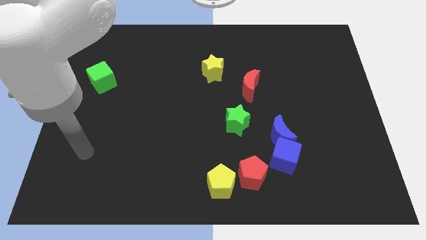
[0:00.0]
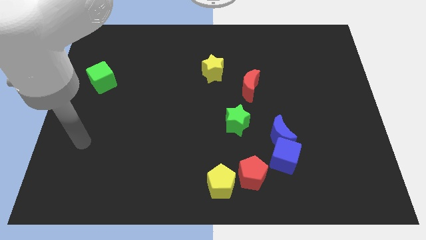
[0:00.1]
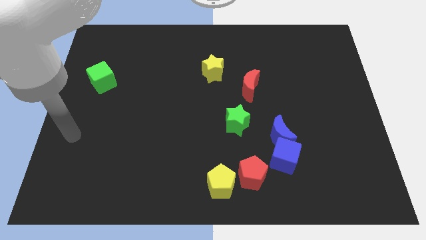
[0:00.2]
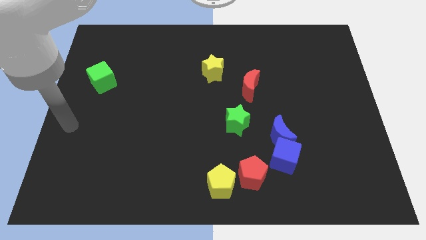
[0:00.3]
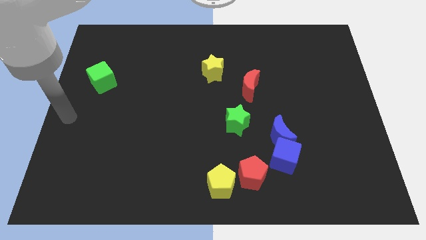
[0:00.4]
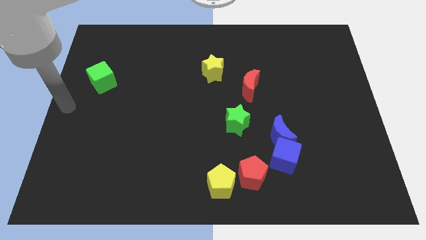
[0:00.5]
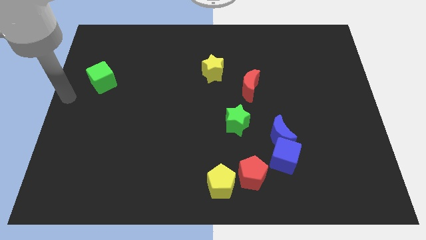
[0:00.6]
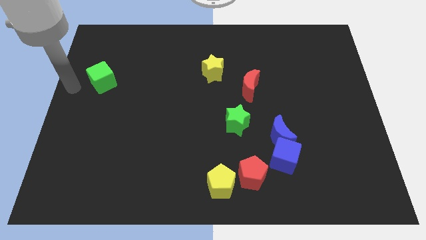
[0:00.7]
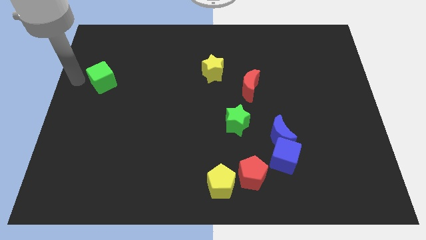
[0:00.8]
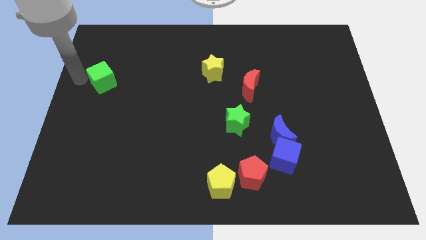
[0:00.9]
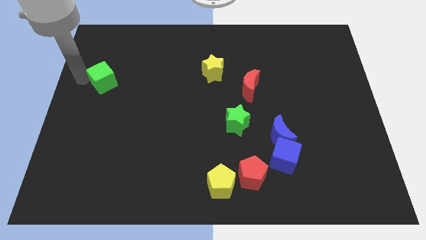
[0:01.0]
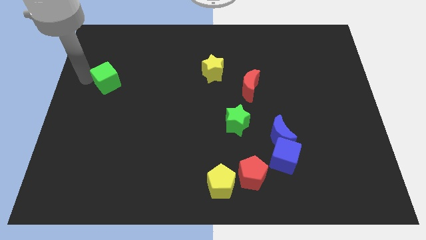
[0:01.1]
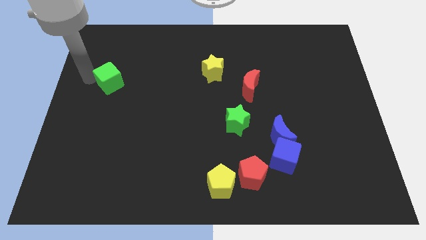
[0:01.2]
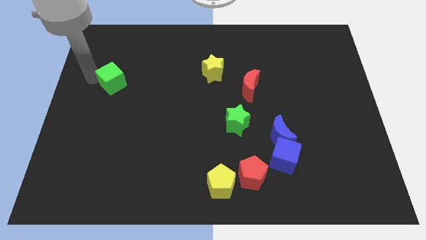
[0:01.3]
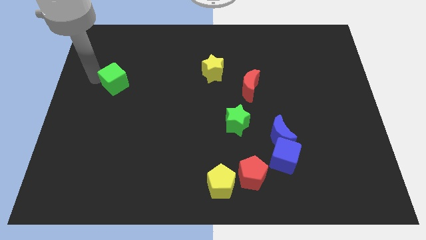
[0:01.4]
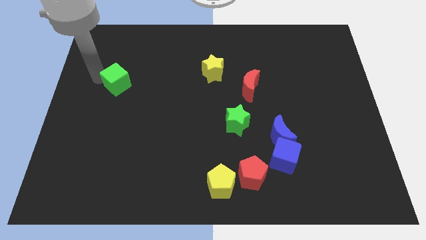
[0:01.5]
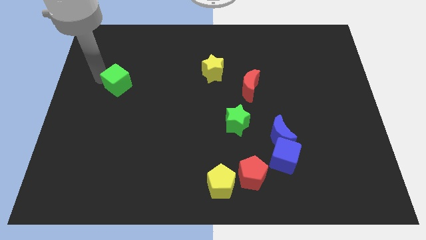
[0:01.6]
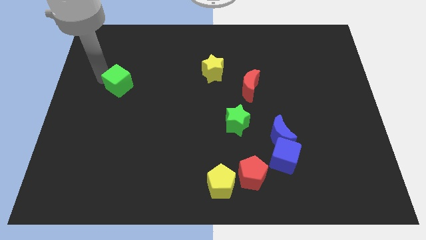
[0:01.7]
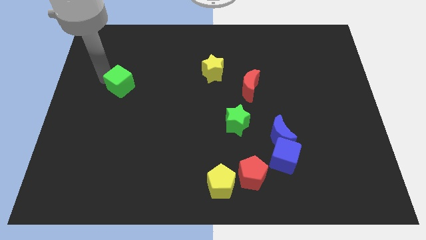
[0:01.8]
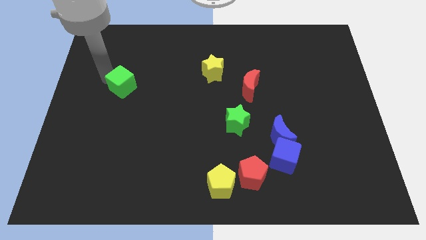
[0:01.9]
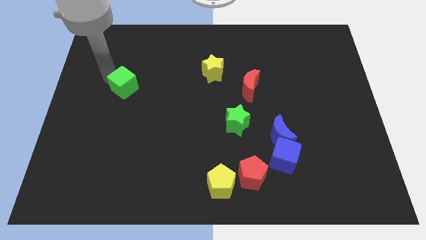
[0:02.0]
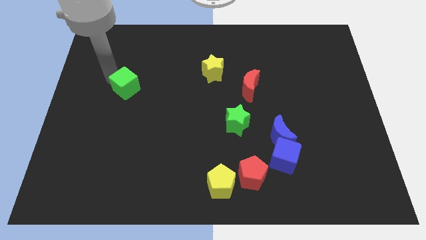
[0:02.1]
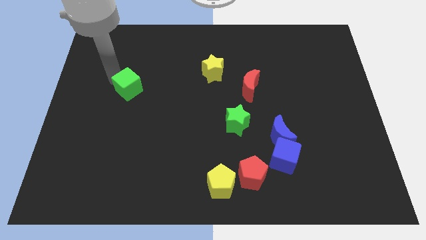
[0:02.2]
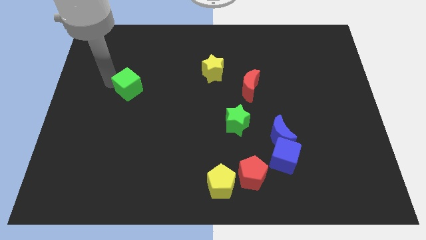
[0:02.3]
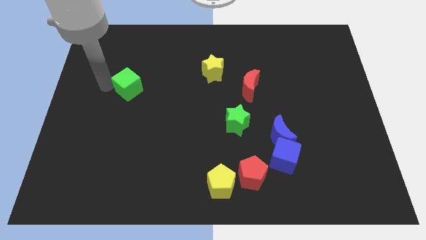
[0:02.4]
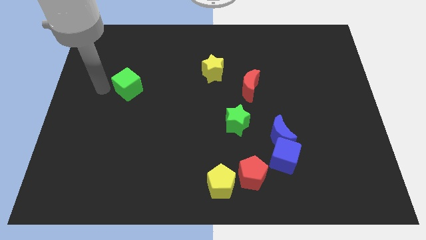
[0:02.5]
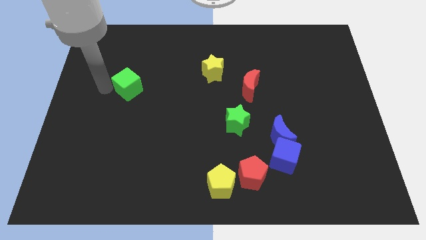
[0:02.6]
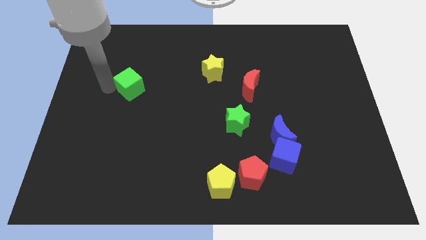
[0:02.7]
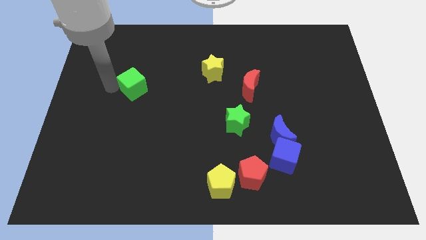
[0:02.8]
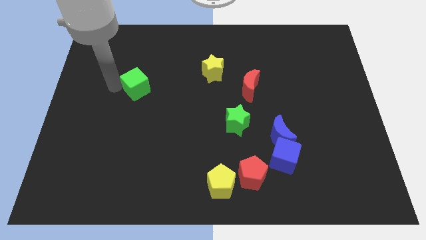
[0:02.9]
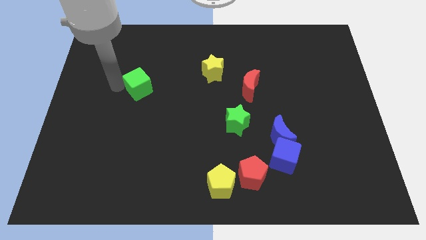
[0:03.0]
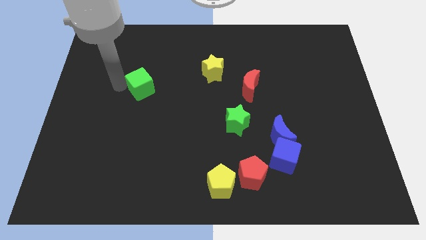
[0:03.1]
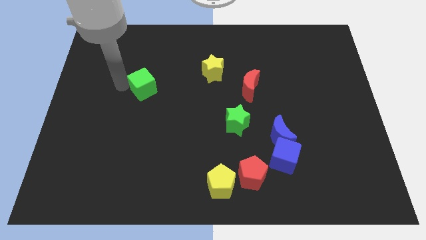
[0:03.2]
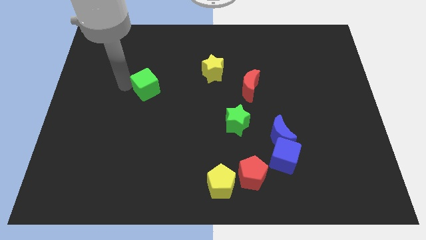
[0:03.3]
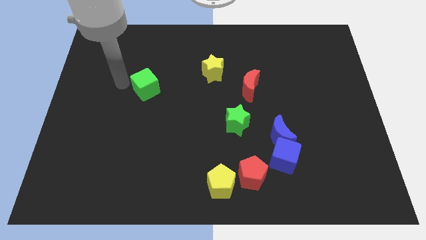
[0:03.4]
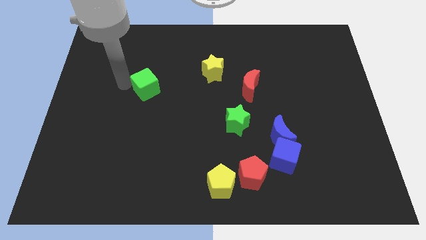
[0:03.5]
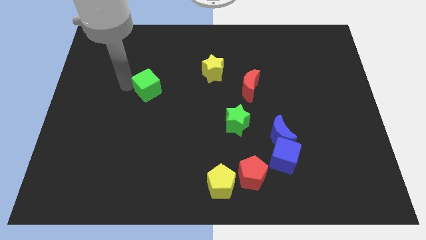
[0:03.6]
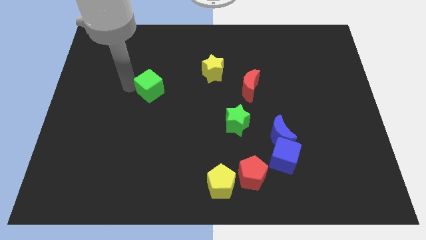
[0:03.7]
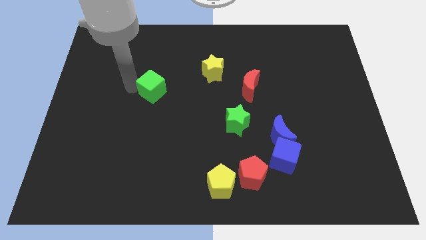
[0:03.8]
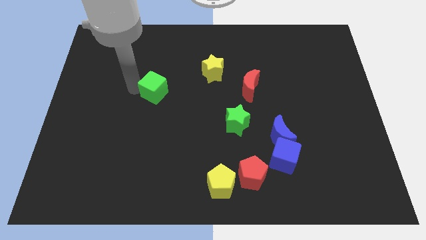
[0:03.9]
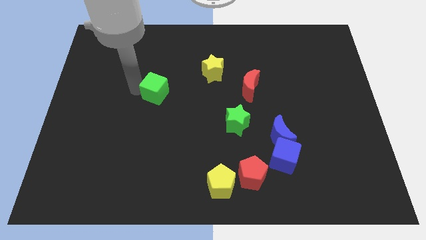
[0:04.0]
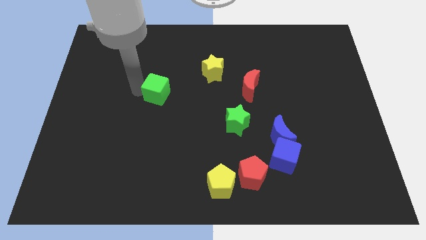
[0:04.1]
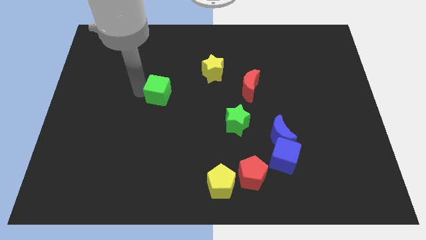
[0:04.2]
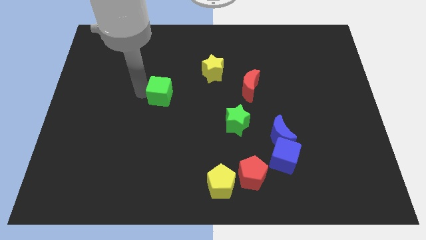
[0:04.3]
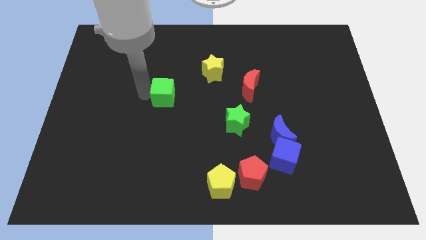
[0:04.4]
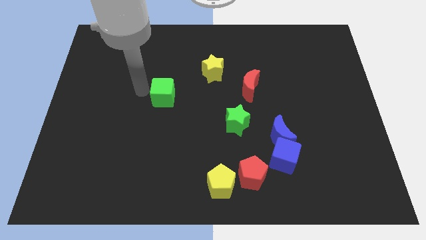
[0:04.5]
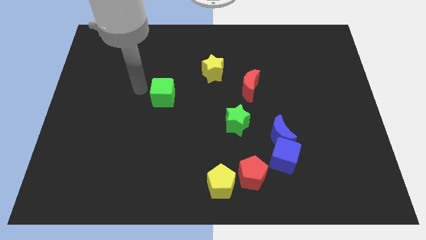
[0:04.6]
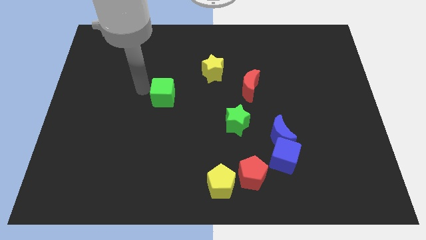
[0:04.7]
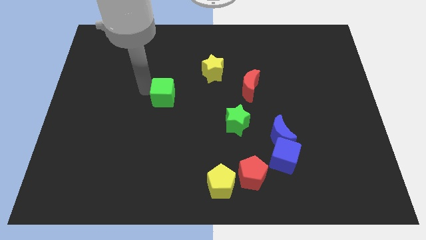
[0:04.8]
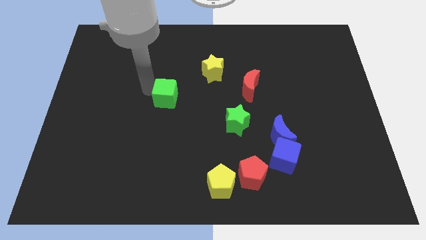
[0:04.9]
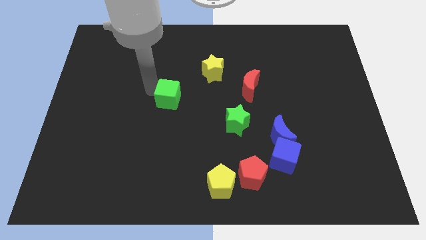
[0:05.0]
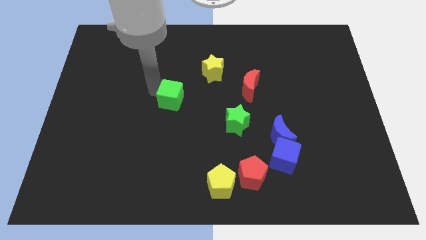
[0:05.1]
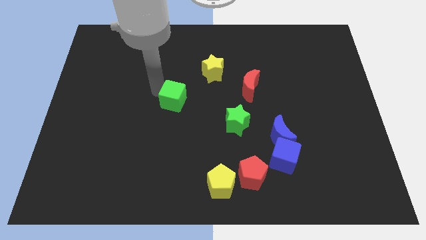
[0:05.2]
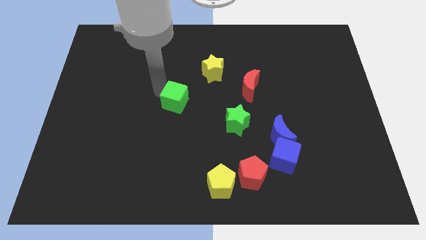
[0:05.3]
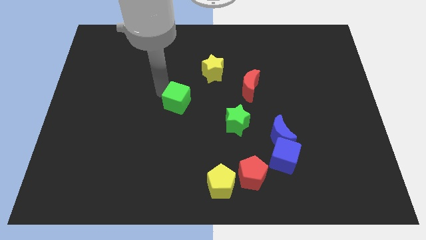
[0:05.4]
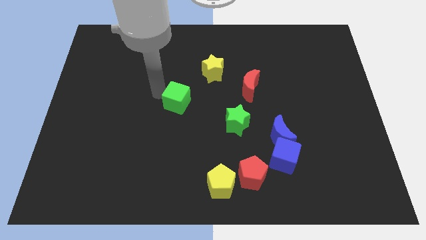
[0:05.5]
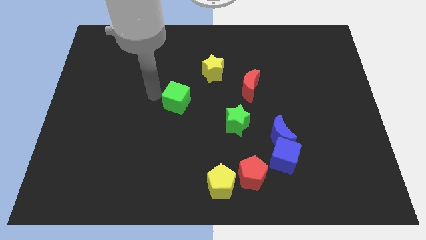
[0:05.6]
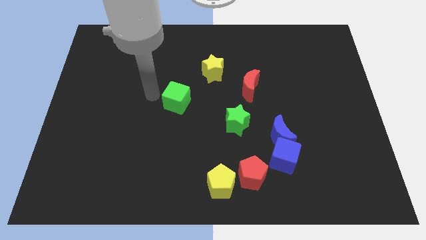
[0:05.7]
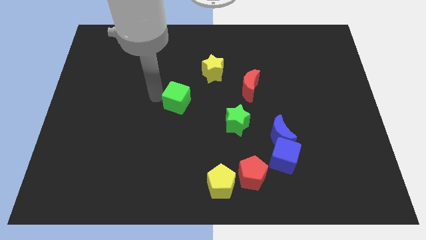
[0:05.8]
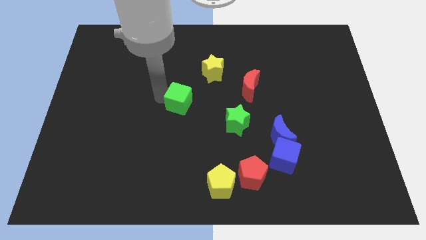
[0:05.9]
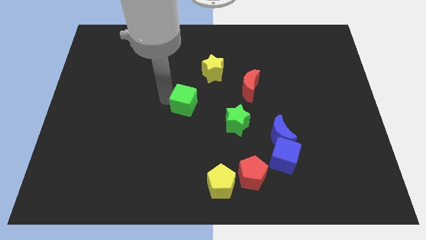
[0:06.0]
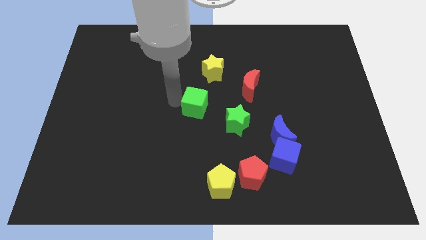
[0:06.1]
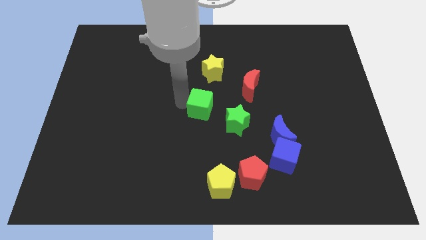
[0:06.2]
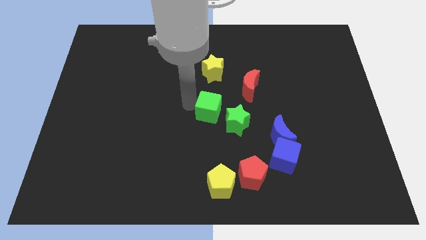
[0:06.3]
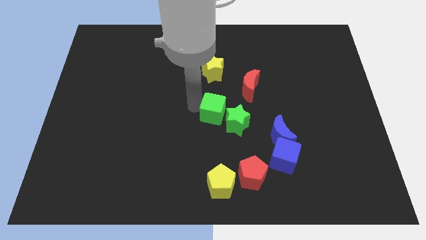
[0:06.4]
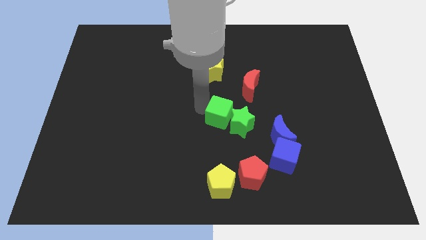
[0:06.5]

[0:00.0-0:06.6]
put the green cube close to the green star

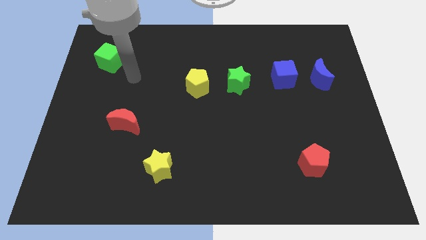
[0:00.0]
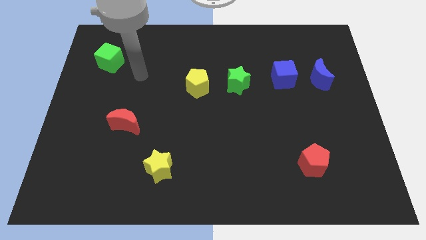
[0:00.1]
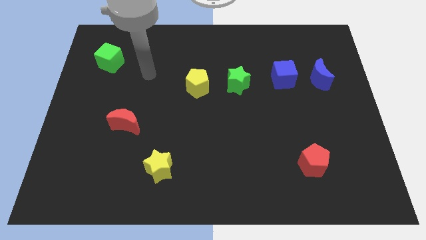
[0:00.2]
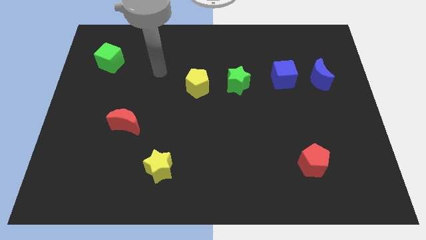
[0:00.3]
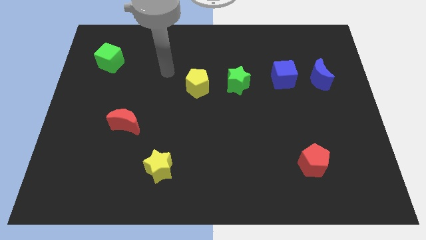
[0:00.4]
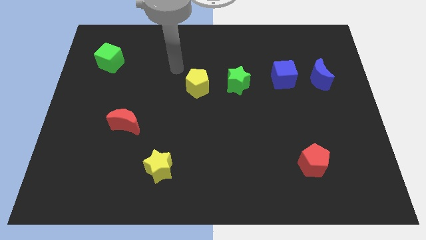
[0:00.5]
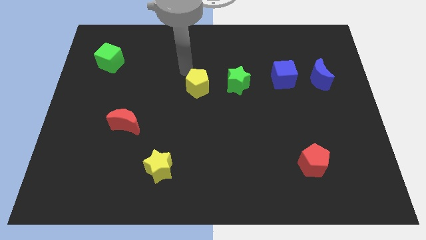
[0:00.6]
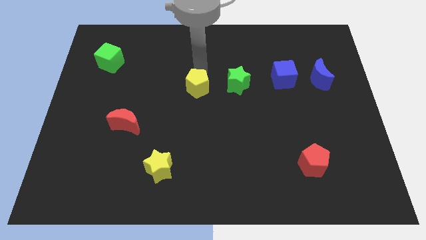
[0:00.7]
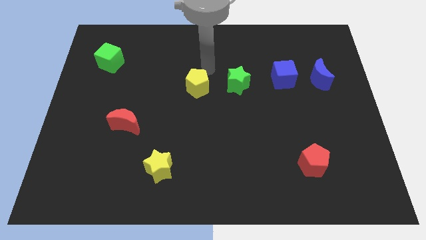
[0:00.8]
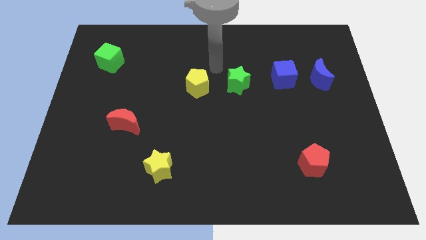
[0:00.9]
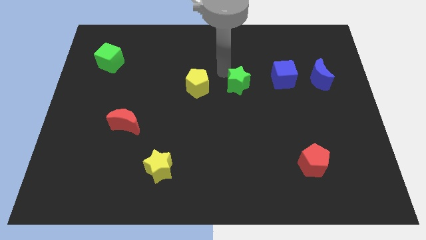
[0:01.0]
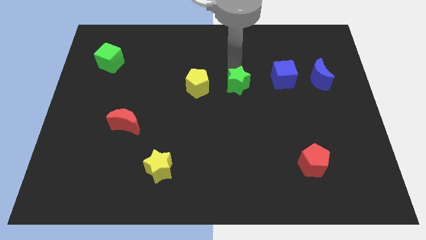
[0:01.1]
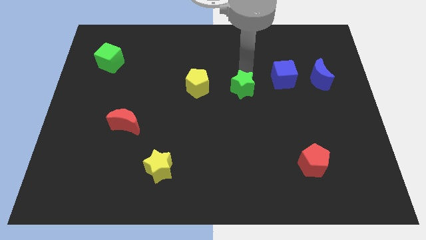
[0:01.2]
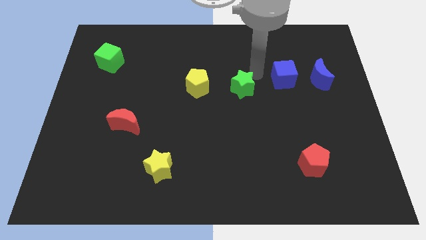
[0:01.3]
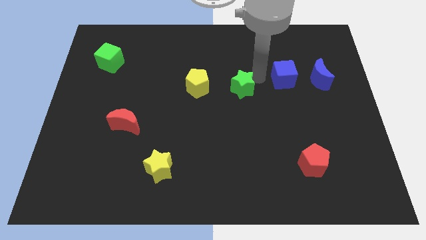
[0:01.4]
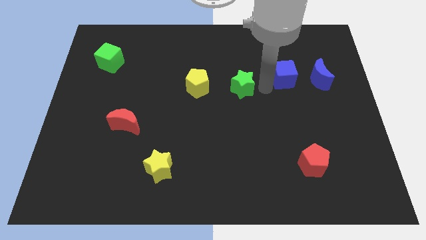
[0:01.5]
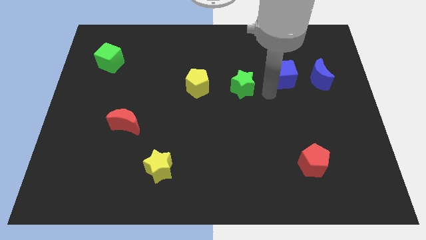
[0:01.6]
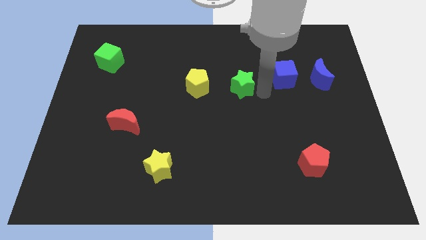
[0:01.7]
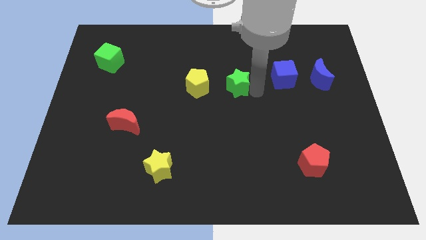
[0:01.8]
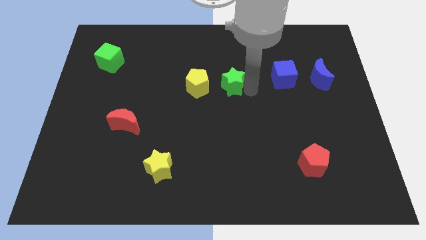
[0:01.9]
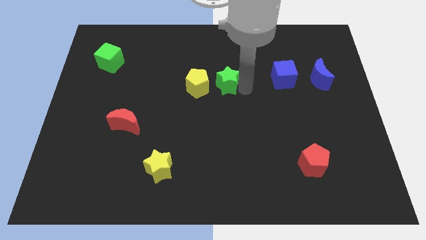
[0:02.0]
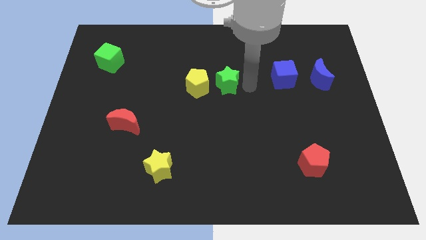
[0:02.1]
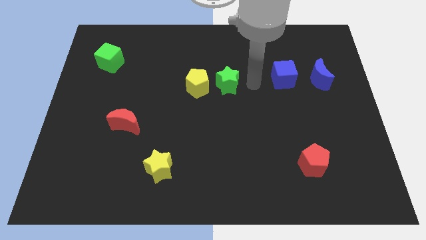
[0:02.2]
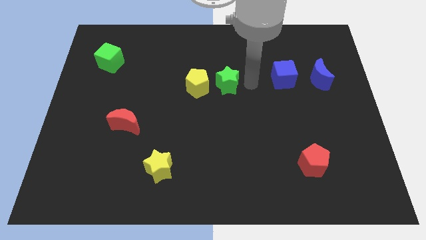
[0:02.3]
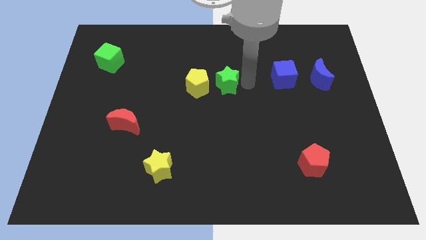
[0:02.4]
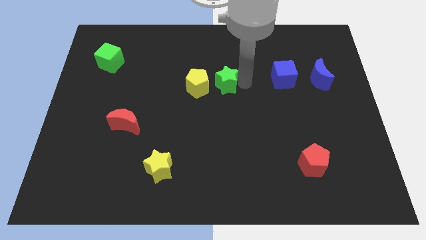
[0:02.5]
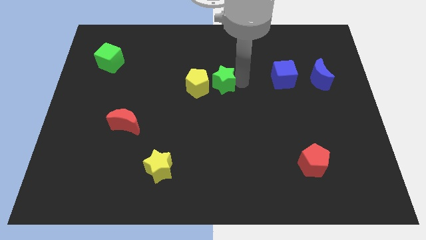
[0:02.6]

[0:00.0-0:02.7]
put the green star close to the yellow pentagon
